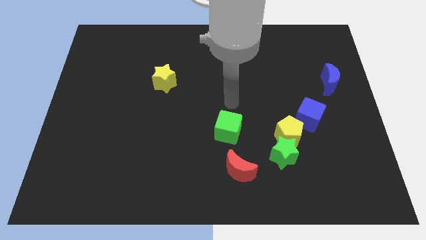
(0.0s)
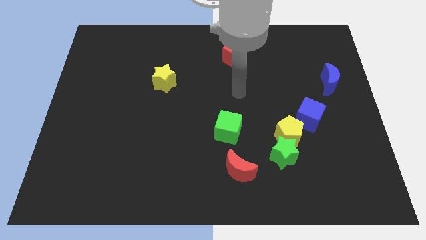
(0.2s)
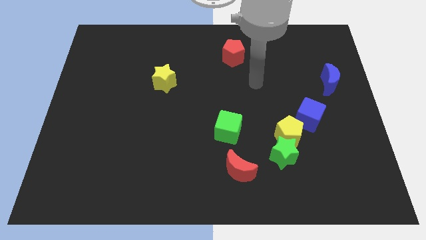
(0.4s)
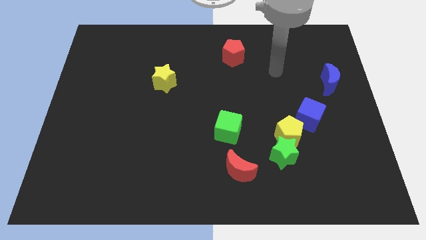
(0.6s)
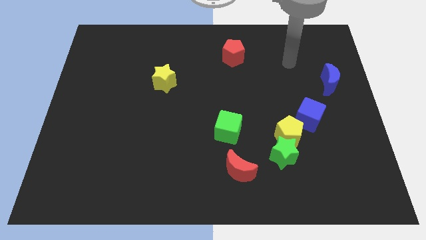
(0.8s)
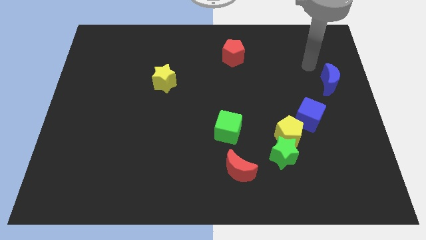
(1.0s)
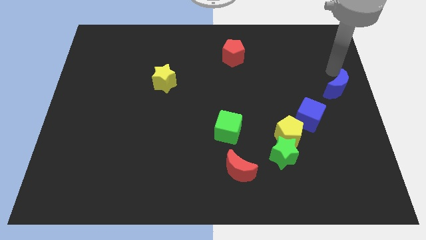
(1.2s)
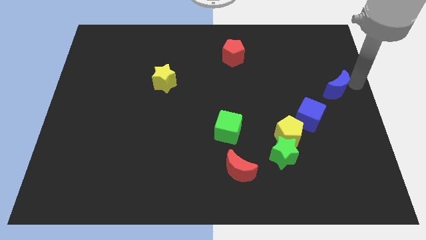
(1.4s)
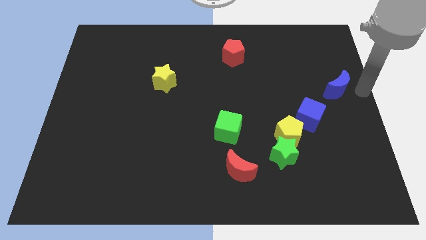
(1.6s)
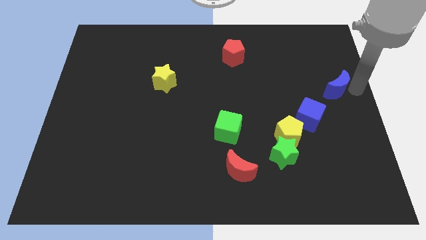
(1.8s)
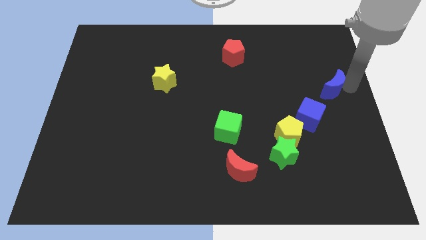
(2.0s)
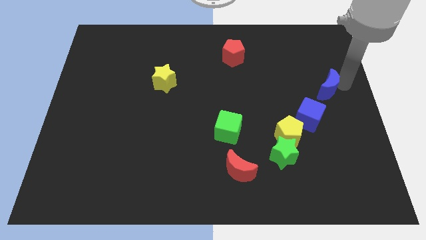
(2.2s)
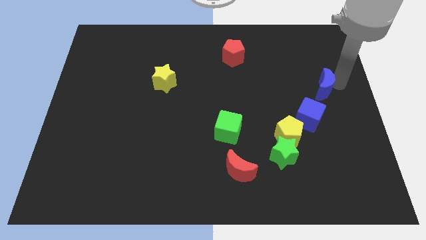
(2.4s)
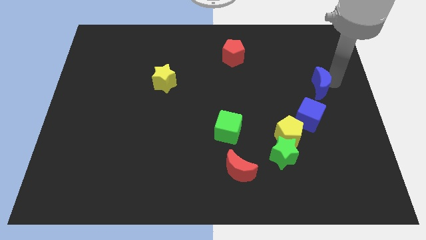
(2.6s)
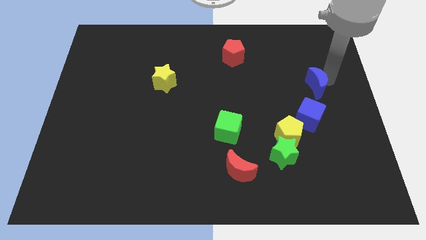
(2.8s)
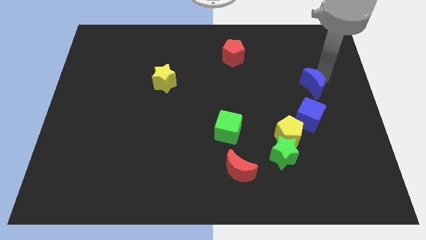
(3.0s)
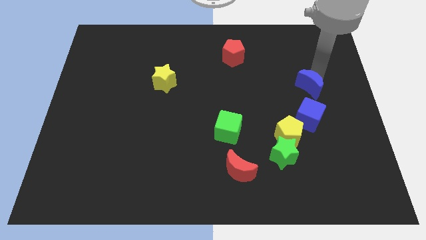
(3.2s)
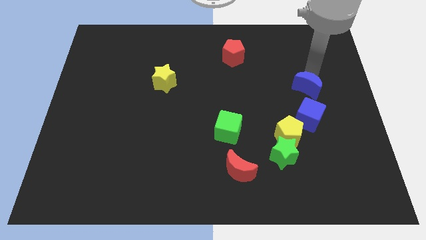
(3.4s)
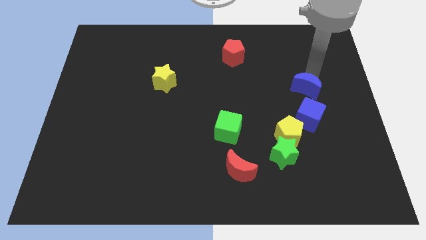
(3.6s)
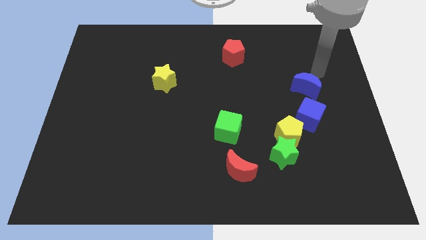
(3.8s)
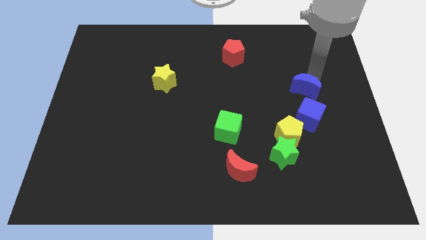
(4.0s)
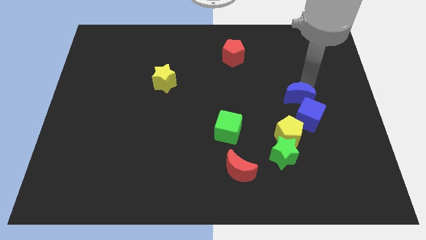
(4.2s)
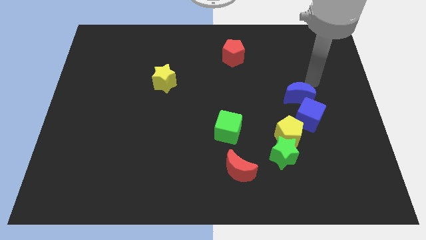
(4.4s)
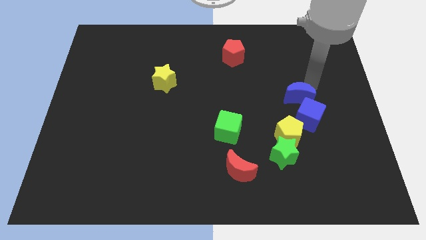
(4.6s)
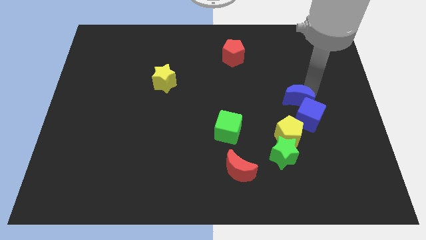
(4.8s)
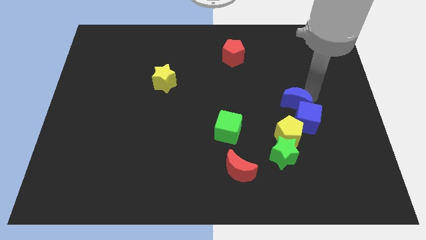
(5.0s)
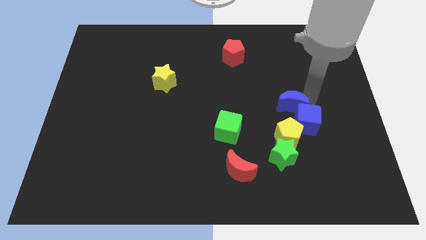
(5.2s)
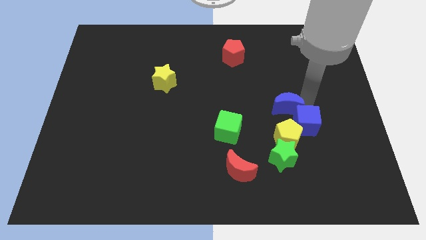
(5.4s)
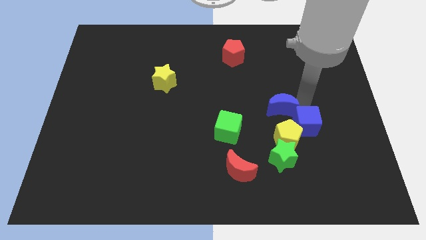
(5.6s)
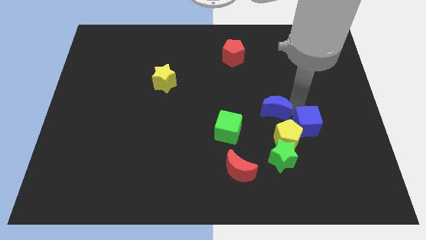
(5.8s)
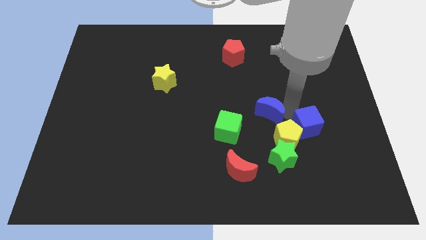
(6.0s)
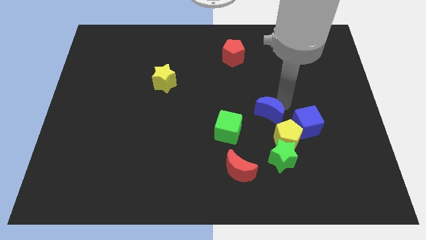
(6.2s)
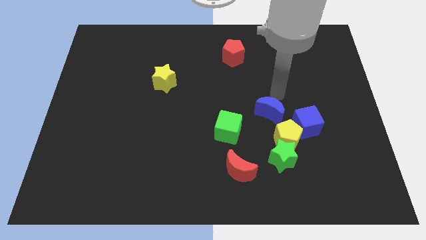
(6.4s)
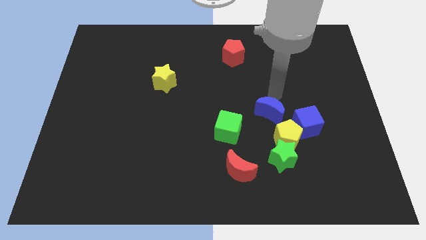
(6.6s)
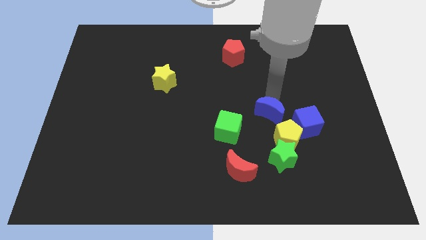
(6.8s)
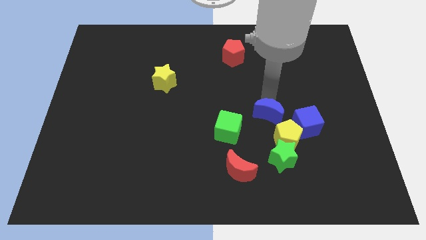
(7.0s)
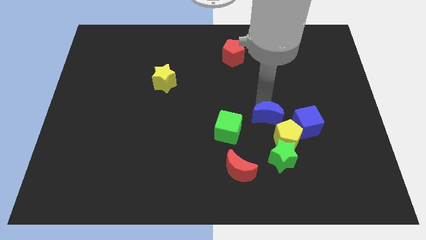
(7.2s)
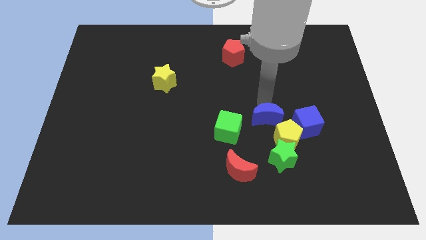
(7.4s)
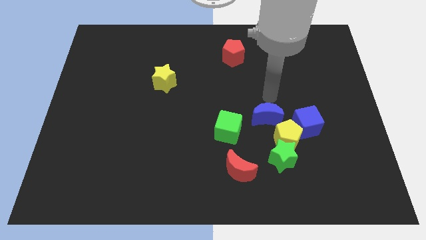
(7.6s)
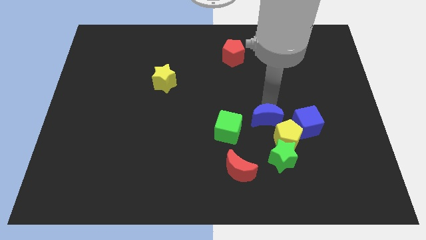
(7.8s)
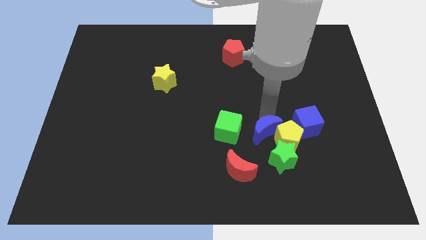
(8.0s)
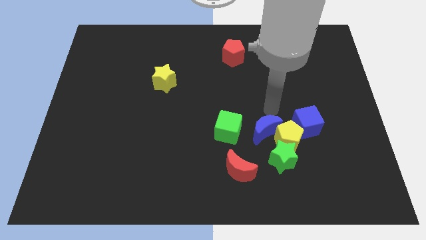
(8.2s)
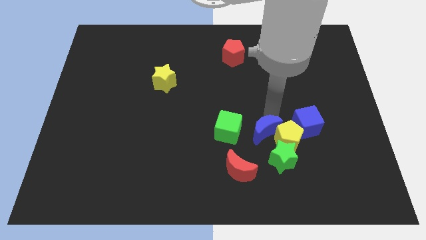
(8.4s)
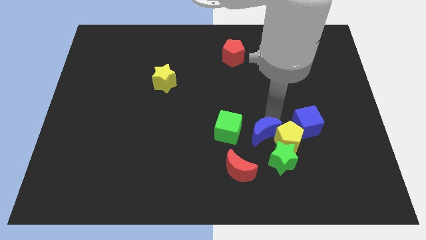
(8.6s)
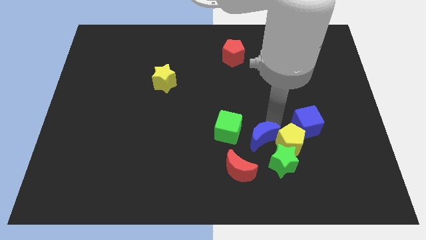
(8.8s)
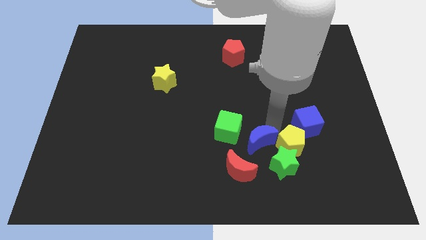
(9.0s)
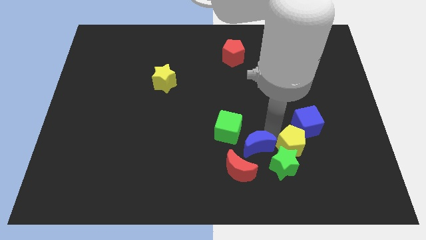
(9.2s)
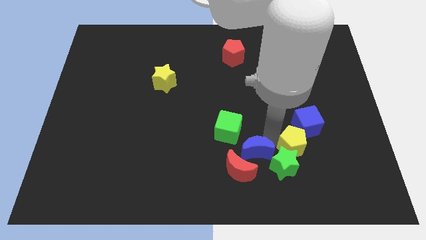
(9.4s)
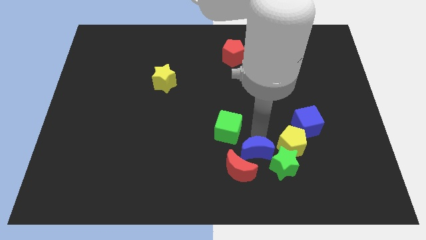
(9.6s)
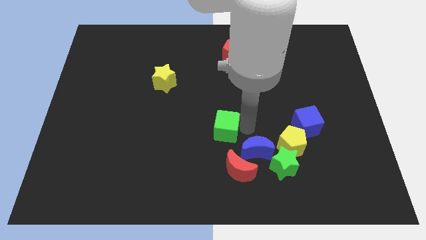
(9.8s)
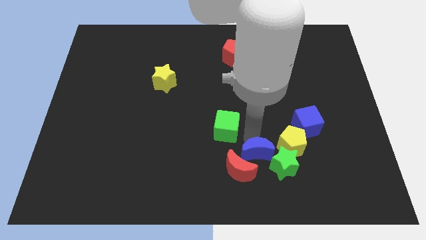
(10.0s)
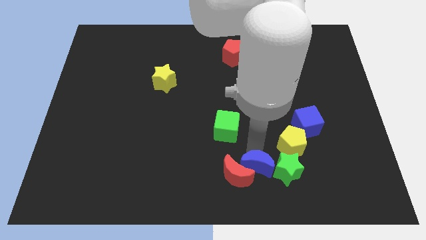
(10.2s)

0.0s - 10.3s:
move the blue moon to the bottom side

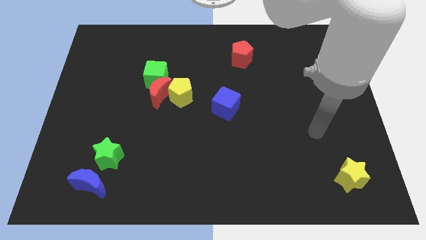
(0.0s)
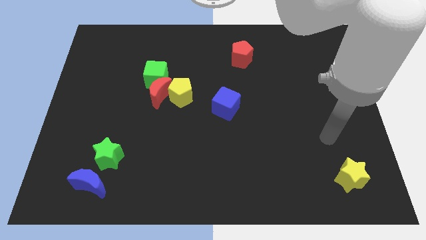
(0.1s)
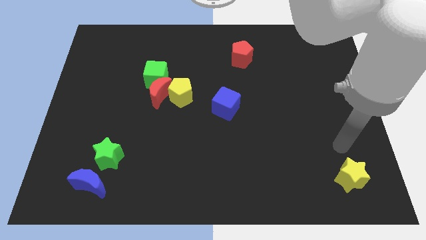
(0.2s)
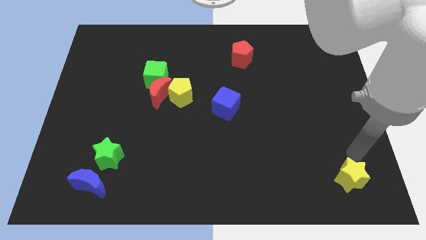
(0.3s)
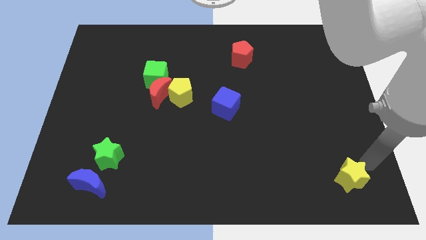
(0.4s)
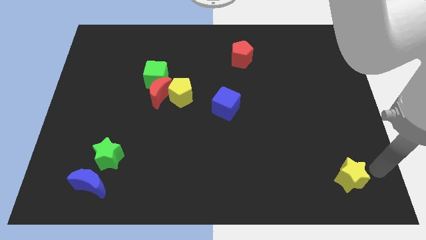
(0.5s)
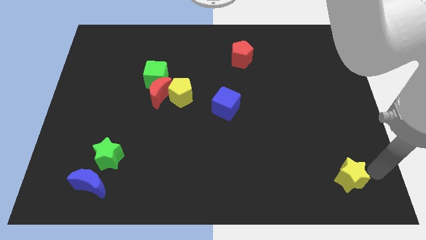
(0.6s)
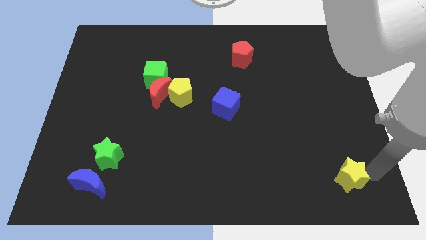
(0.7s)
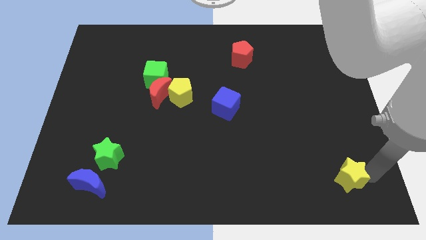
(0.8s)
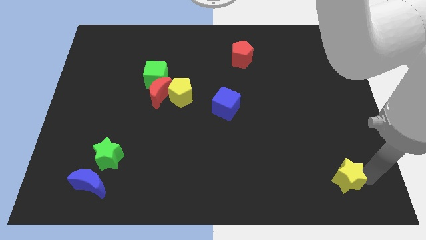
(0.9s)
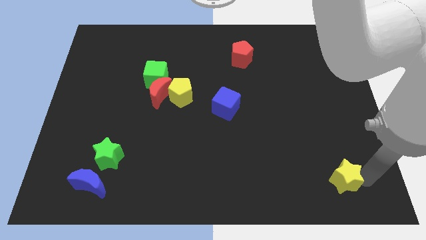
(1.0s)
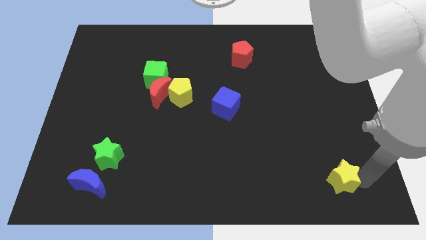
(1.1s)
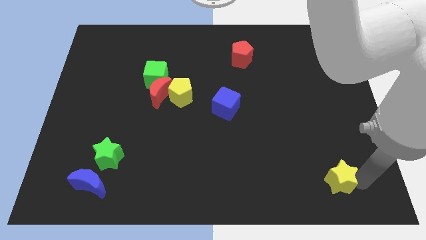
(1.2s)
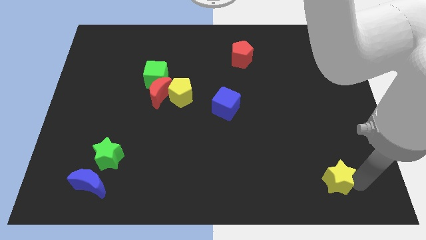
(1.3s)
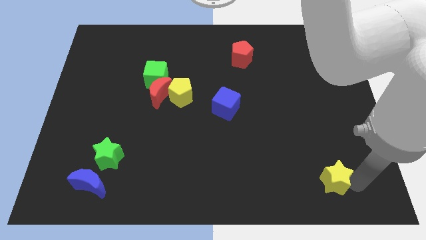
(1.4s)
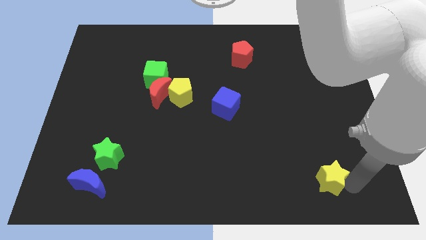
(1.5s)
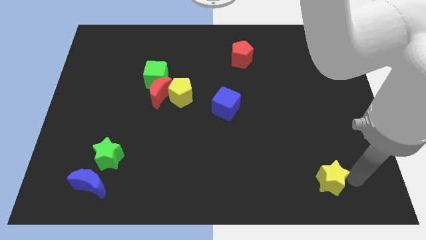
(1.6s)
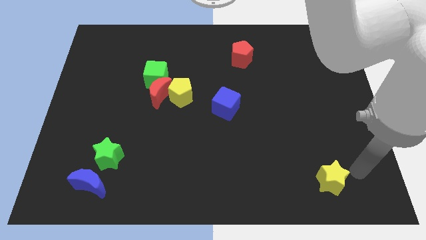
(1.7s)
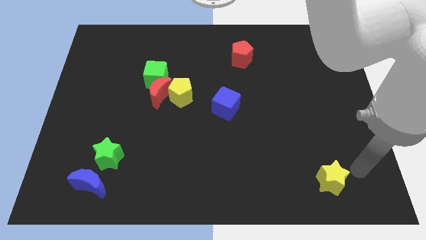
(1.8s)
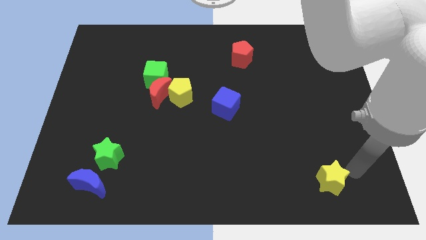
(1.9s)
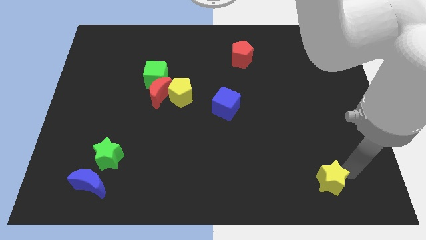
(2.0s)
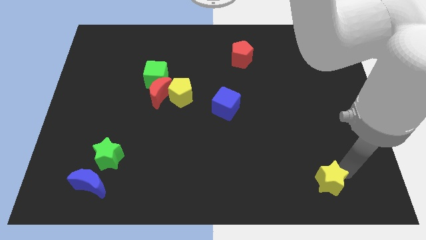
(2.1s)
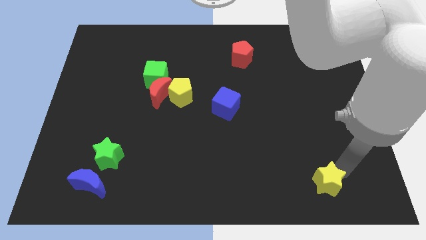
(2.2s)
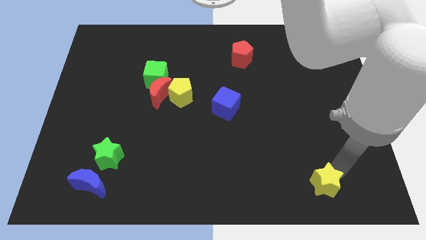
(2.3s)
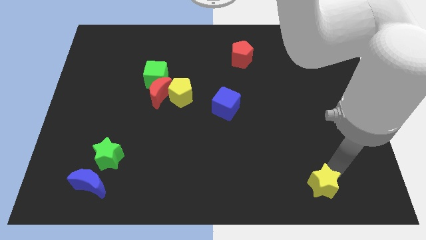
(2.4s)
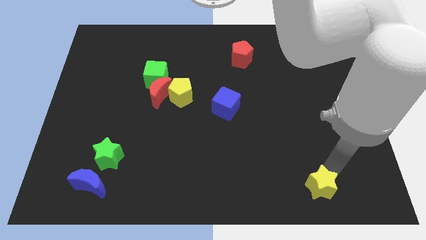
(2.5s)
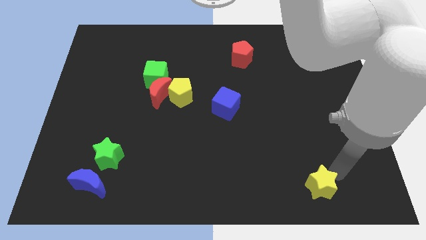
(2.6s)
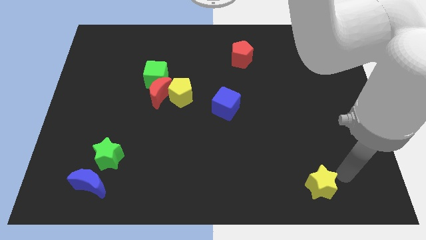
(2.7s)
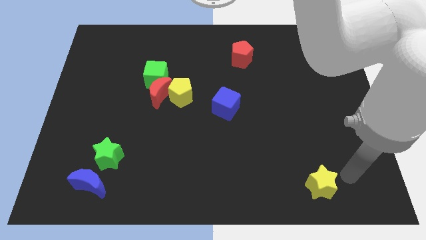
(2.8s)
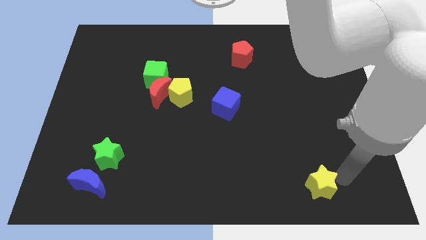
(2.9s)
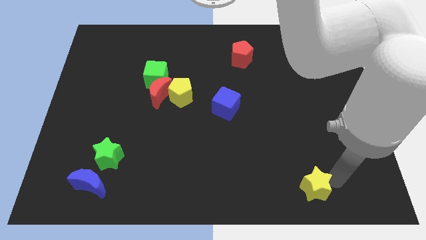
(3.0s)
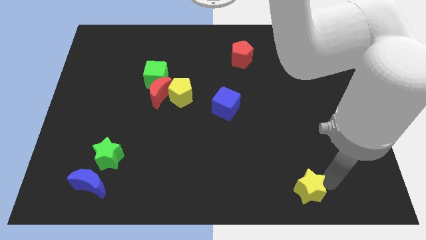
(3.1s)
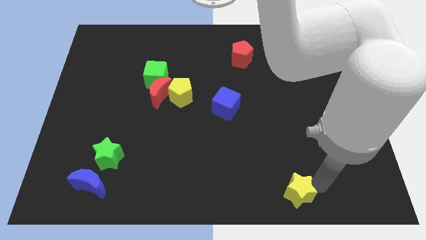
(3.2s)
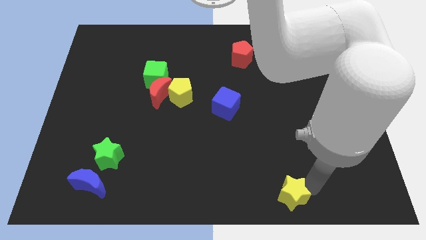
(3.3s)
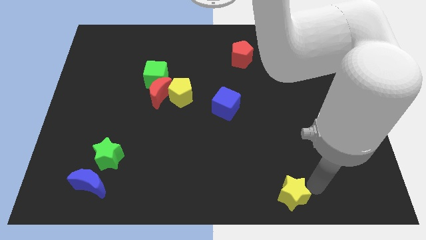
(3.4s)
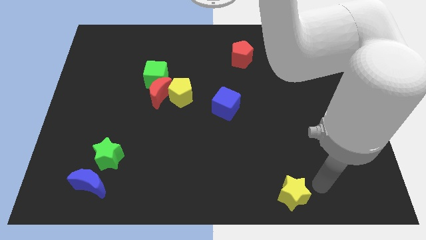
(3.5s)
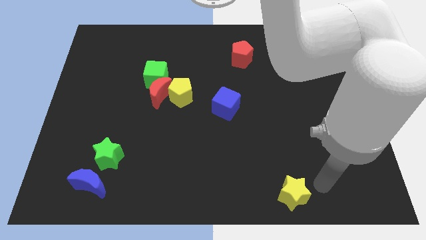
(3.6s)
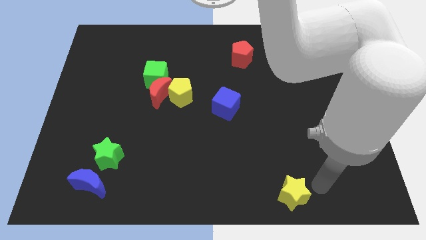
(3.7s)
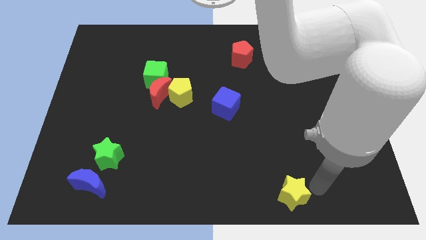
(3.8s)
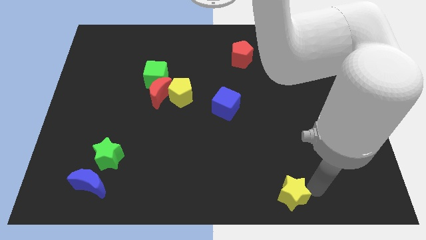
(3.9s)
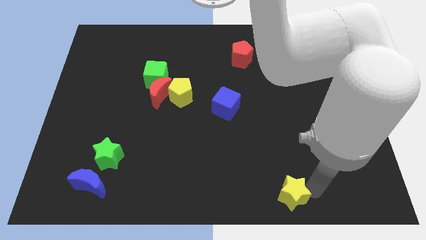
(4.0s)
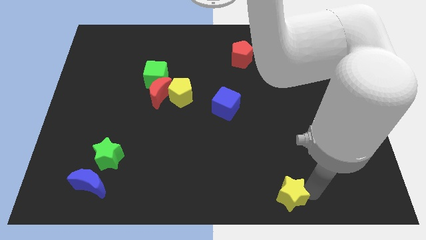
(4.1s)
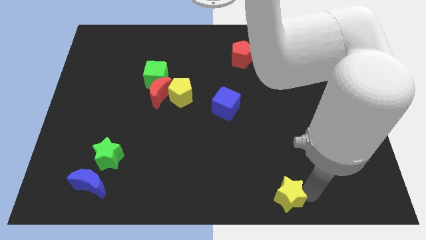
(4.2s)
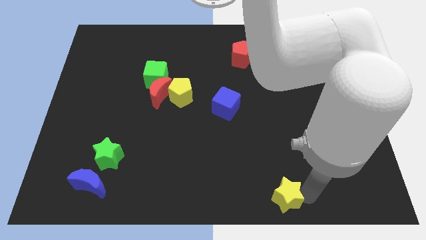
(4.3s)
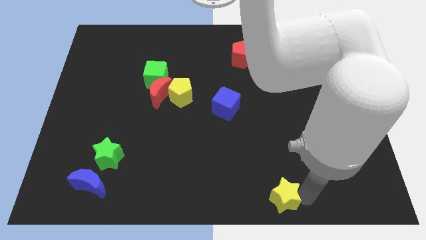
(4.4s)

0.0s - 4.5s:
put the yellow star to the bottom side
